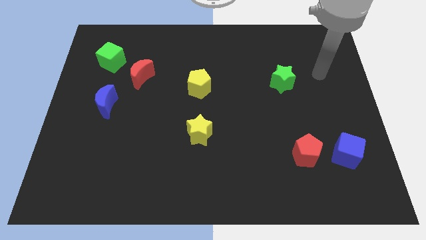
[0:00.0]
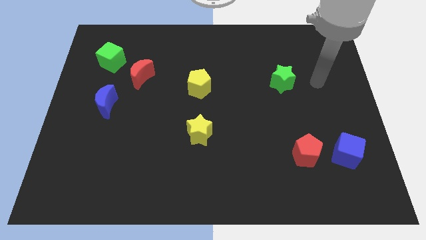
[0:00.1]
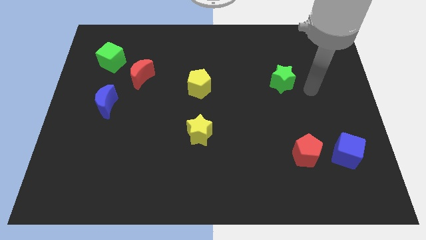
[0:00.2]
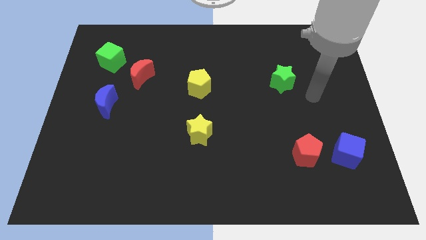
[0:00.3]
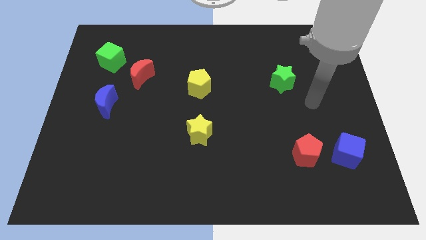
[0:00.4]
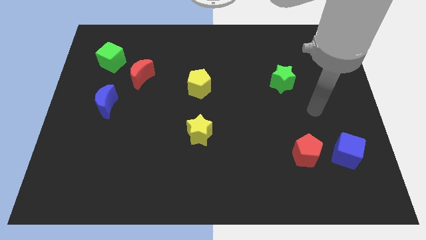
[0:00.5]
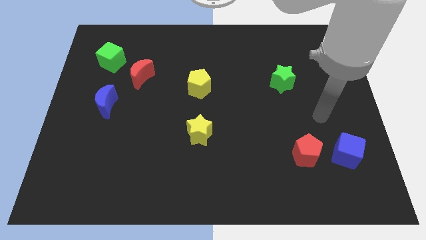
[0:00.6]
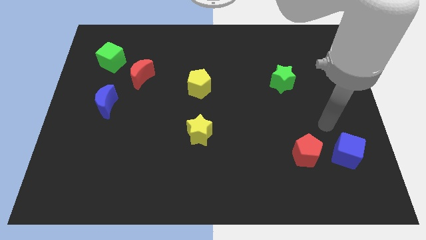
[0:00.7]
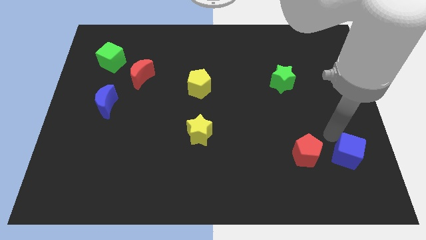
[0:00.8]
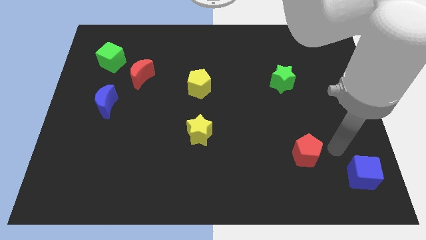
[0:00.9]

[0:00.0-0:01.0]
move the red pentagon away from the blue cube

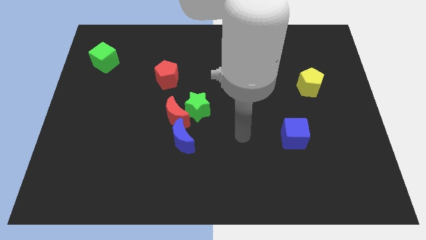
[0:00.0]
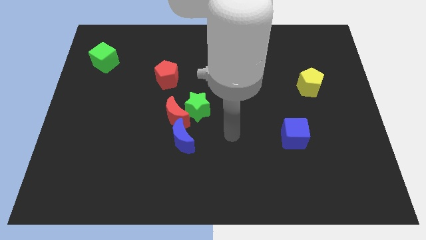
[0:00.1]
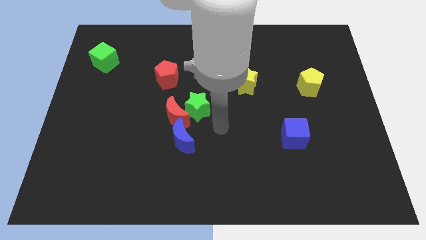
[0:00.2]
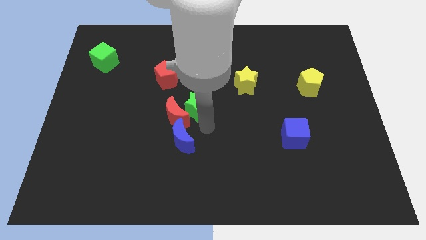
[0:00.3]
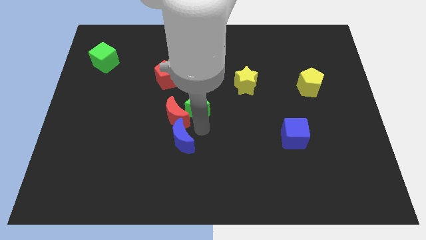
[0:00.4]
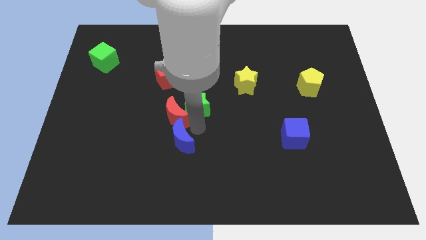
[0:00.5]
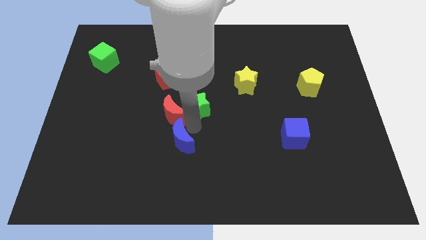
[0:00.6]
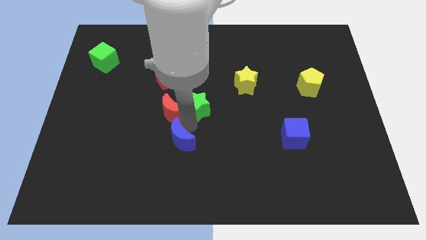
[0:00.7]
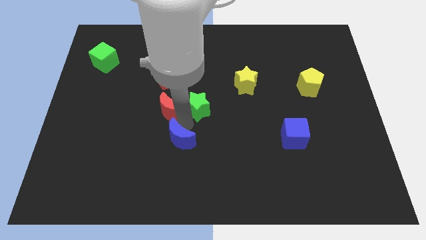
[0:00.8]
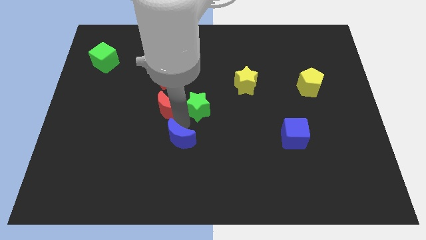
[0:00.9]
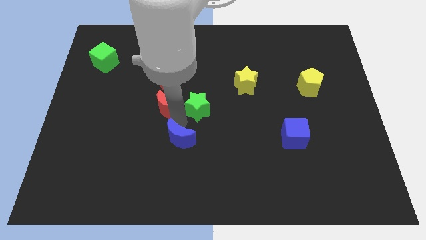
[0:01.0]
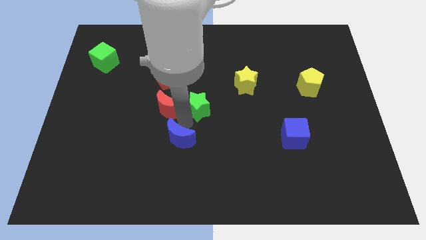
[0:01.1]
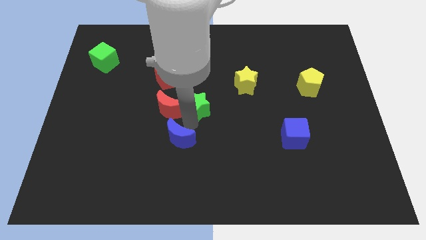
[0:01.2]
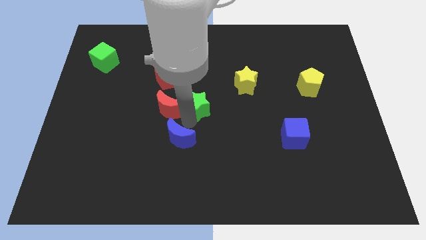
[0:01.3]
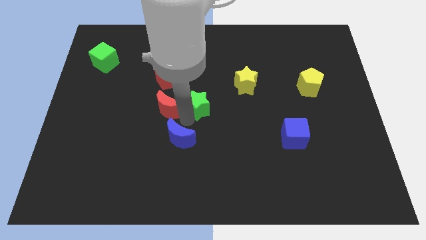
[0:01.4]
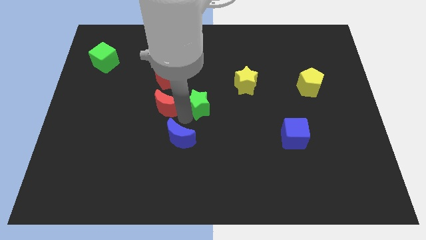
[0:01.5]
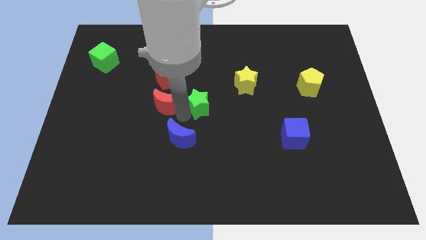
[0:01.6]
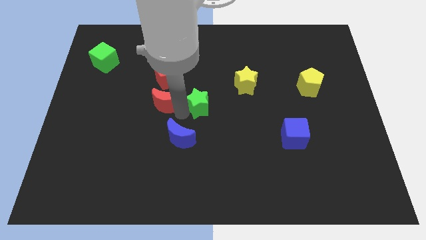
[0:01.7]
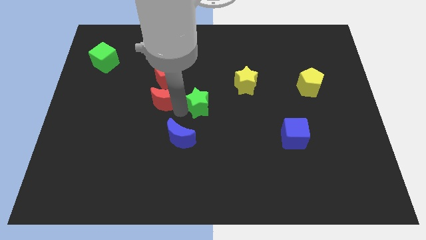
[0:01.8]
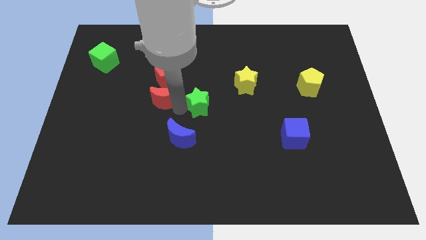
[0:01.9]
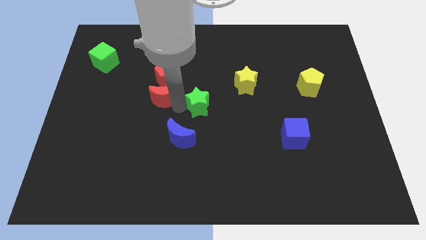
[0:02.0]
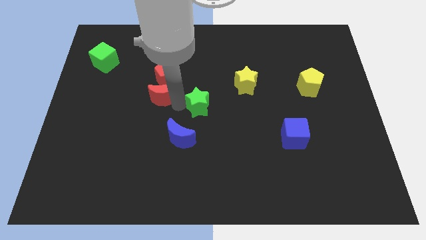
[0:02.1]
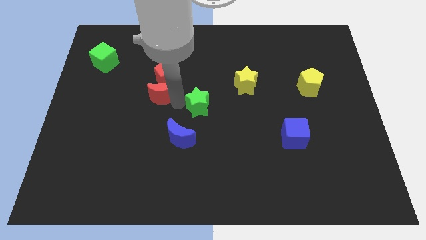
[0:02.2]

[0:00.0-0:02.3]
pull the red moon apart from the green star and blue moon

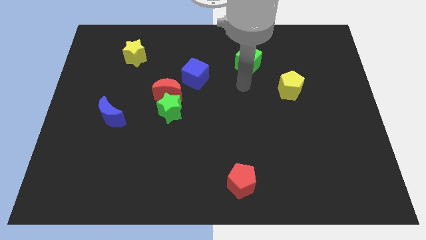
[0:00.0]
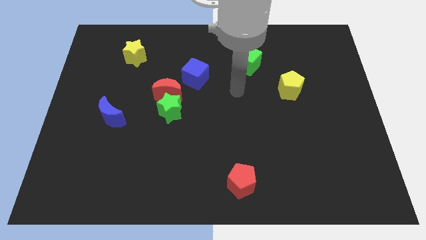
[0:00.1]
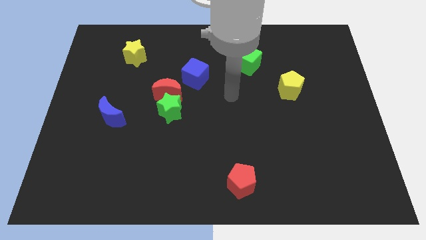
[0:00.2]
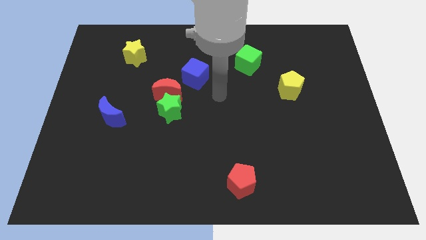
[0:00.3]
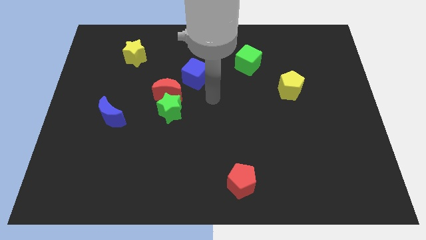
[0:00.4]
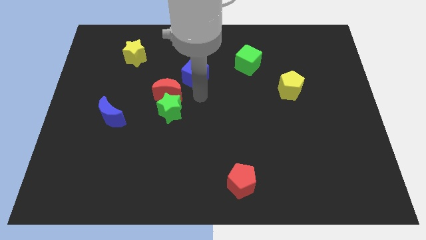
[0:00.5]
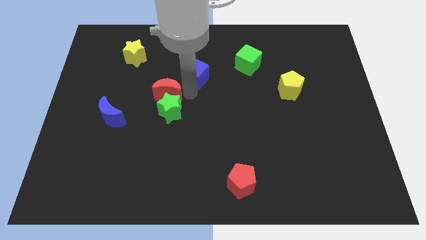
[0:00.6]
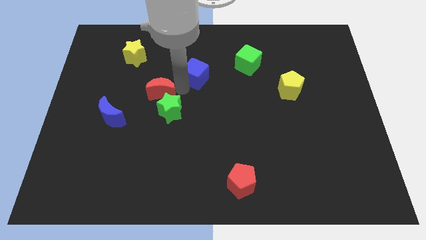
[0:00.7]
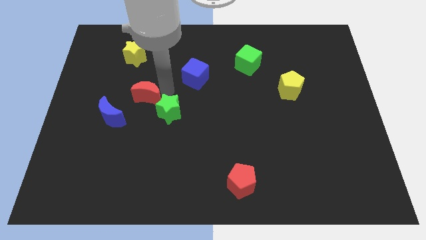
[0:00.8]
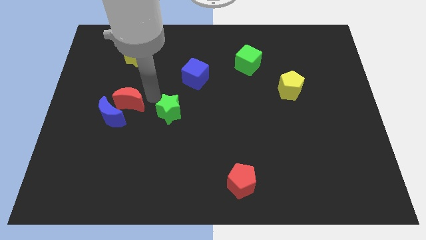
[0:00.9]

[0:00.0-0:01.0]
move the green star away from the red moon

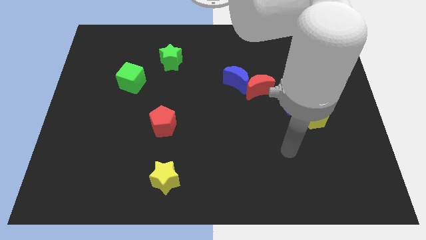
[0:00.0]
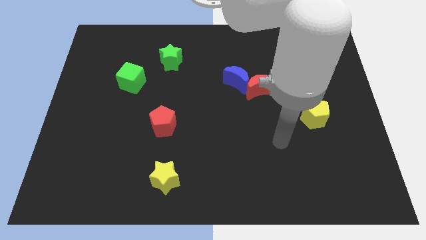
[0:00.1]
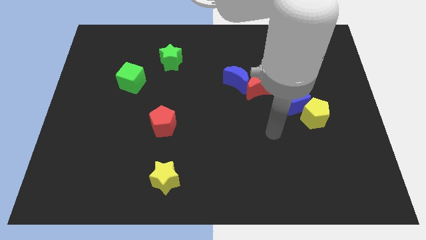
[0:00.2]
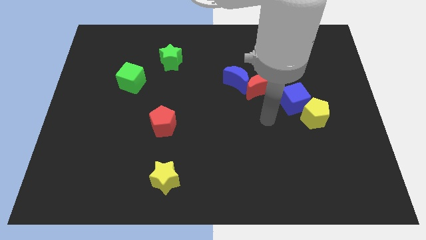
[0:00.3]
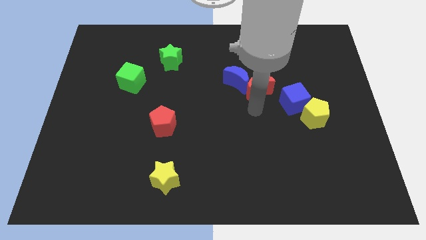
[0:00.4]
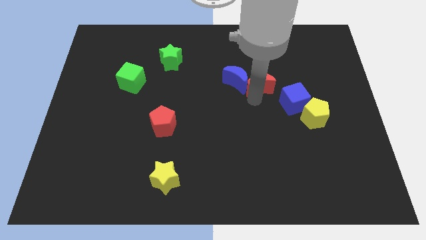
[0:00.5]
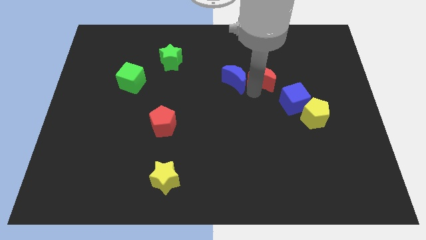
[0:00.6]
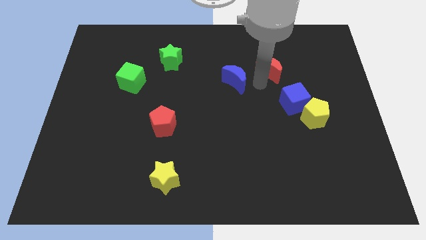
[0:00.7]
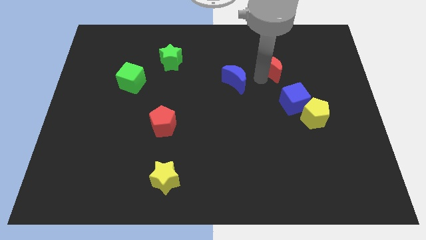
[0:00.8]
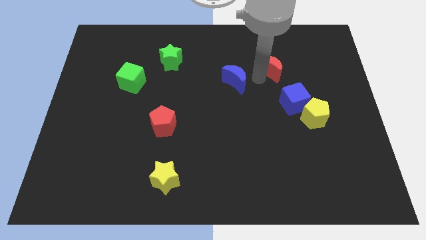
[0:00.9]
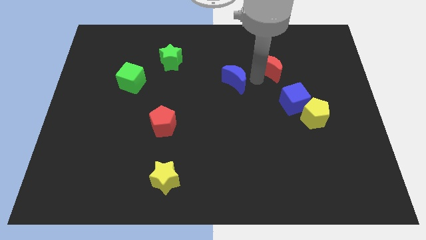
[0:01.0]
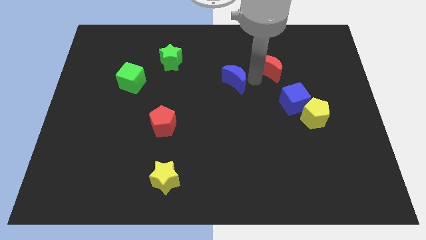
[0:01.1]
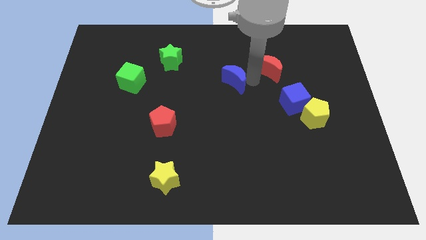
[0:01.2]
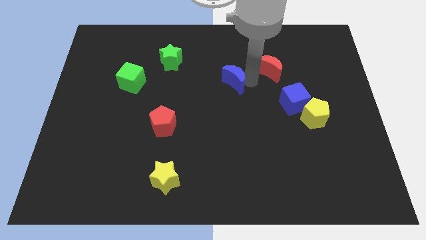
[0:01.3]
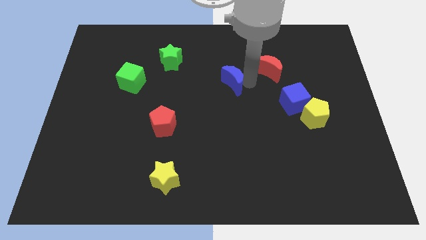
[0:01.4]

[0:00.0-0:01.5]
move the blue moon away from the red moon

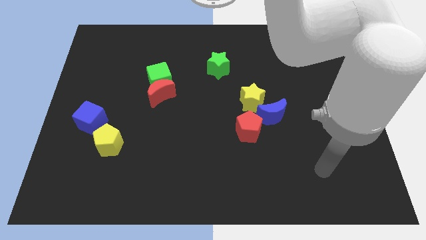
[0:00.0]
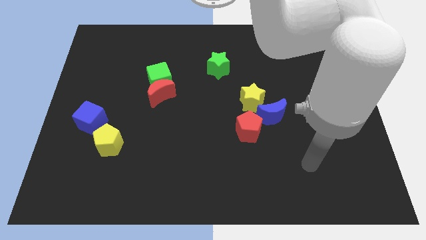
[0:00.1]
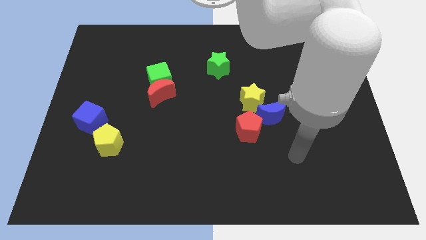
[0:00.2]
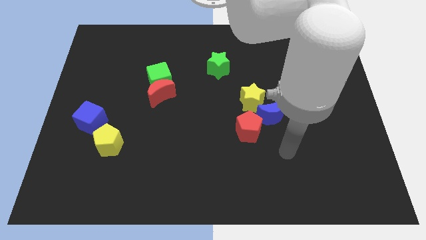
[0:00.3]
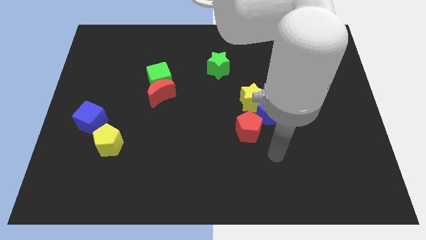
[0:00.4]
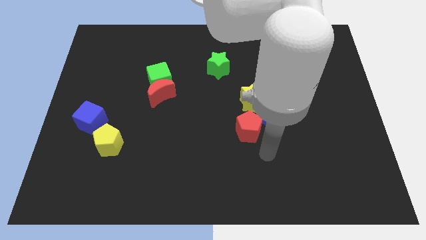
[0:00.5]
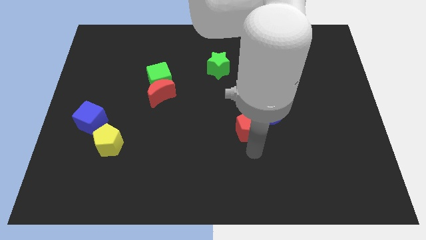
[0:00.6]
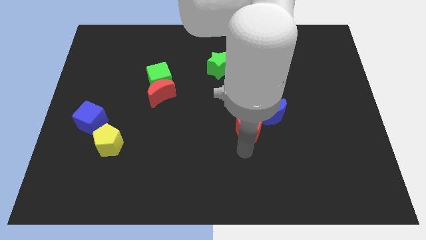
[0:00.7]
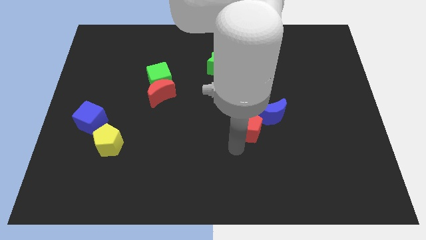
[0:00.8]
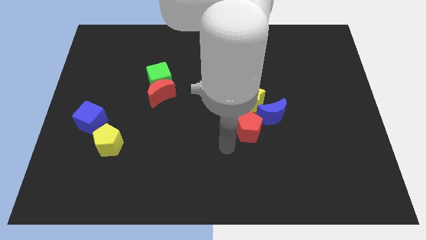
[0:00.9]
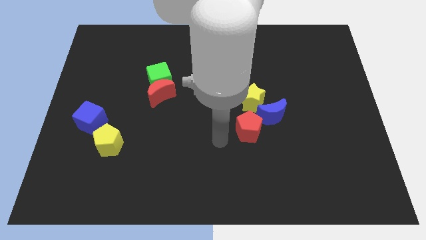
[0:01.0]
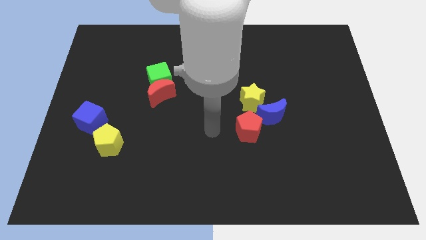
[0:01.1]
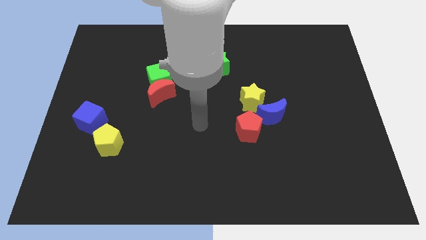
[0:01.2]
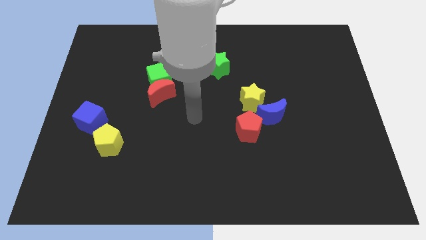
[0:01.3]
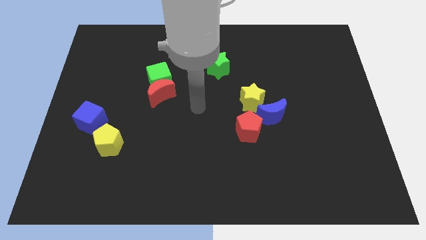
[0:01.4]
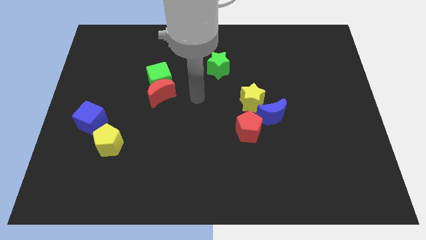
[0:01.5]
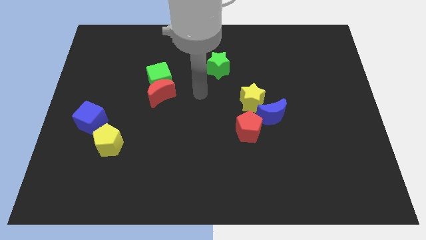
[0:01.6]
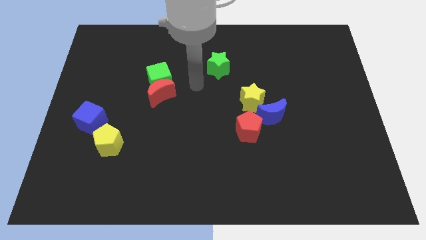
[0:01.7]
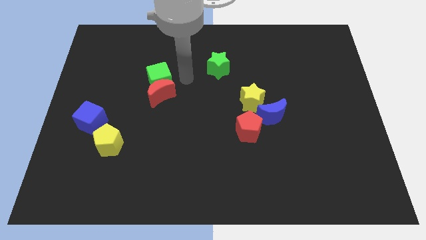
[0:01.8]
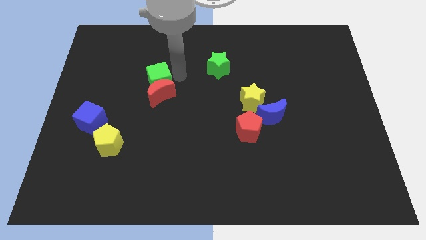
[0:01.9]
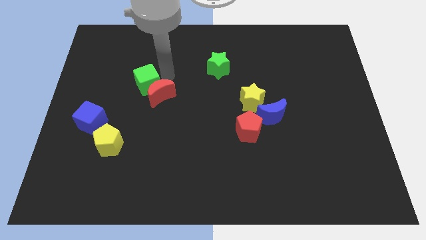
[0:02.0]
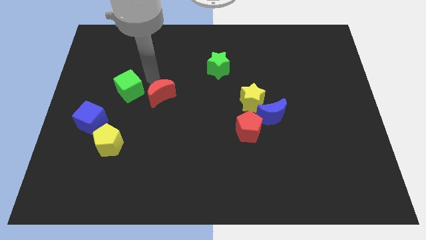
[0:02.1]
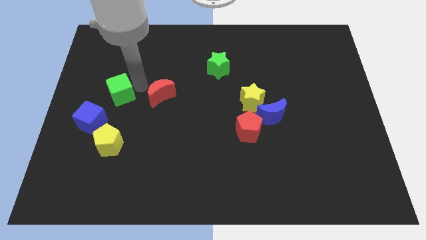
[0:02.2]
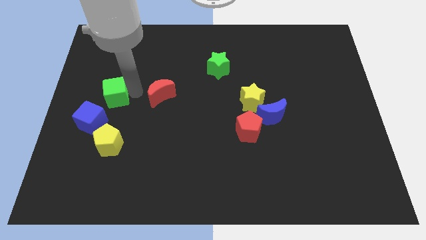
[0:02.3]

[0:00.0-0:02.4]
move the red moon away from the green cube

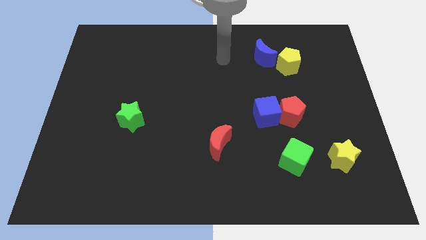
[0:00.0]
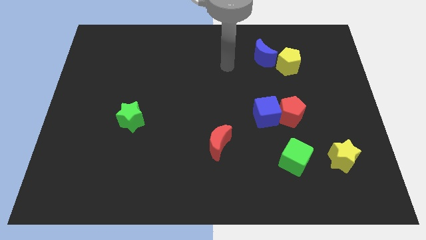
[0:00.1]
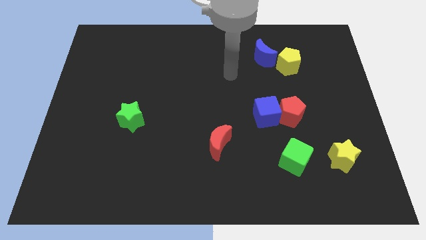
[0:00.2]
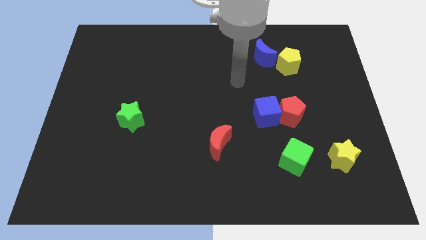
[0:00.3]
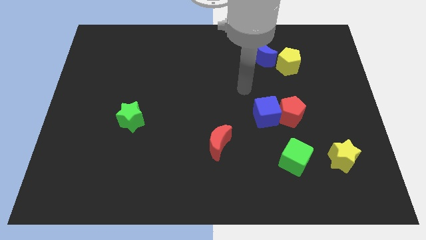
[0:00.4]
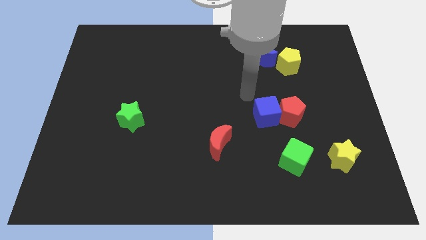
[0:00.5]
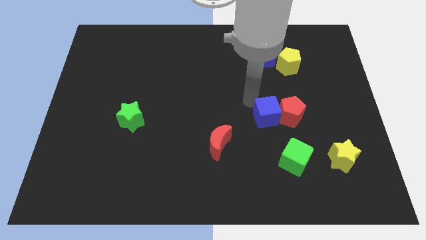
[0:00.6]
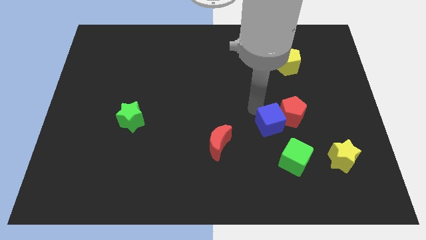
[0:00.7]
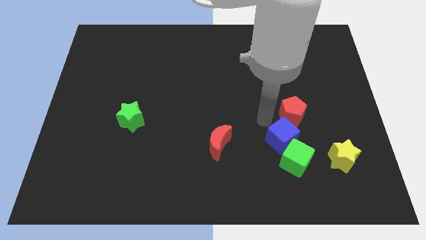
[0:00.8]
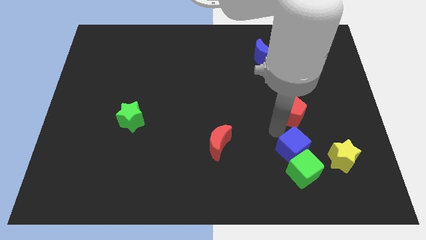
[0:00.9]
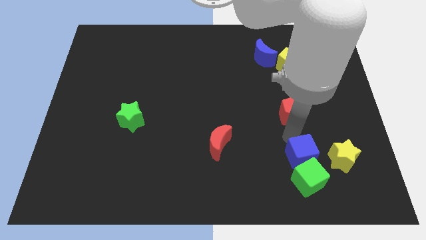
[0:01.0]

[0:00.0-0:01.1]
separate the red pentagon from the blue cube
